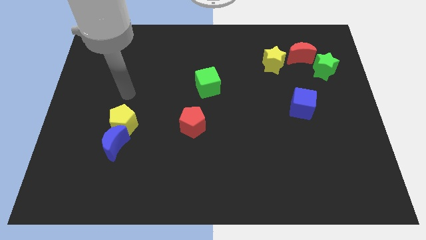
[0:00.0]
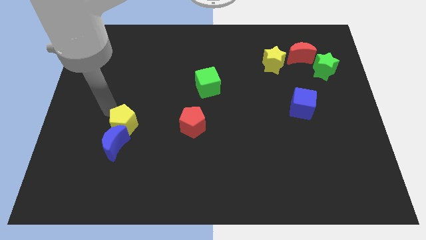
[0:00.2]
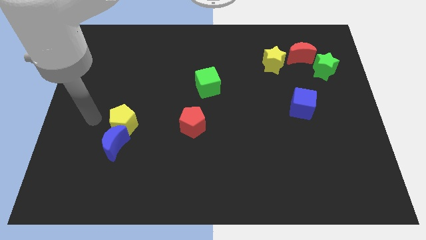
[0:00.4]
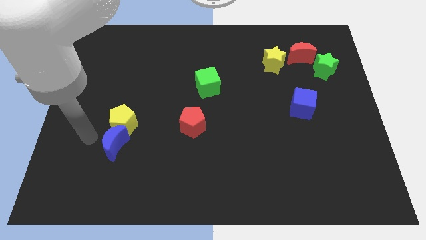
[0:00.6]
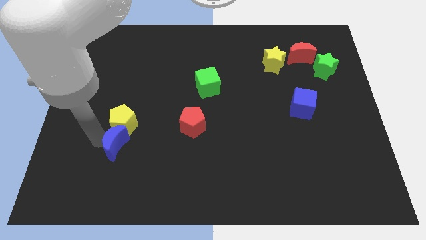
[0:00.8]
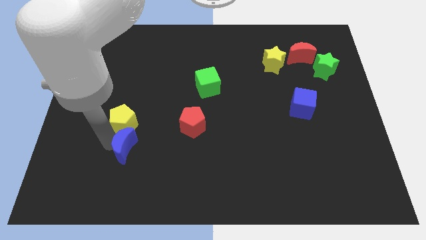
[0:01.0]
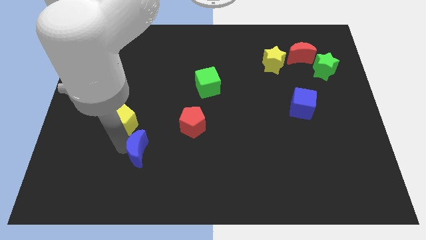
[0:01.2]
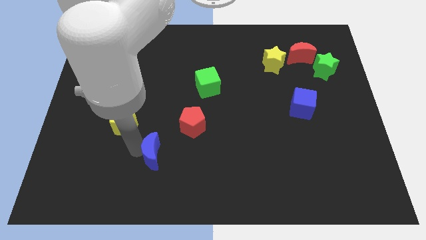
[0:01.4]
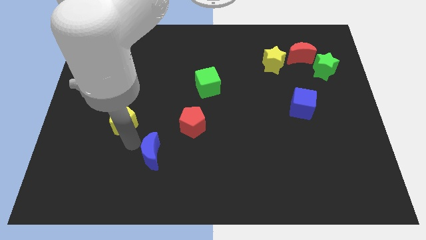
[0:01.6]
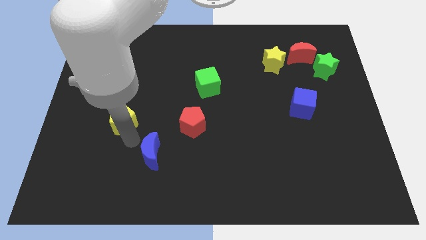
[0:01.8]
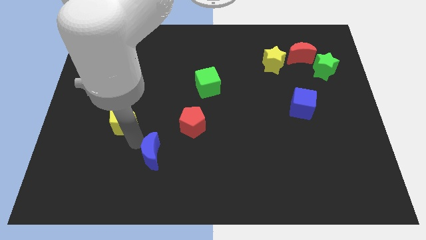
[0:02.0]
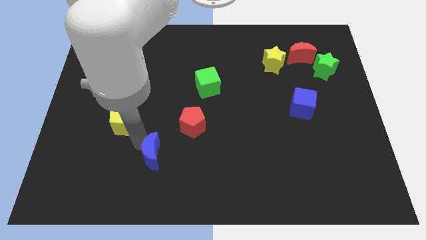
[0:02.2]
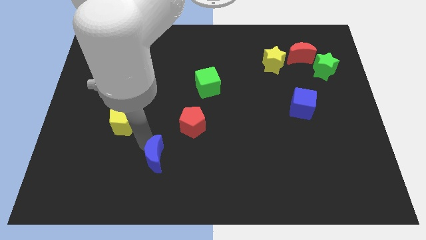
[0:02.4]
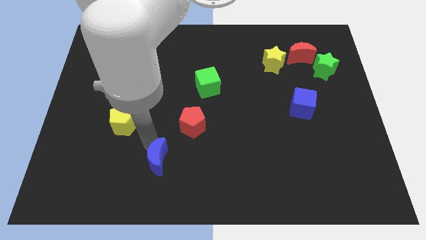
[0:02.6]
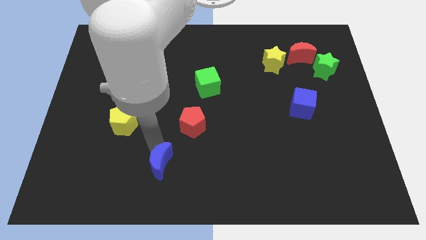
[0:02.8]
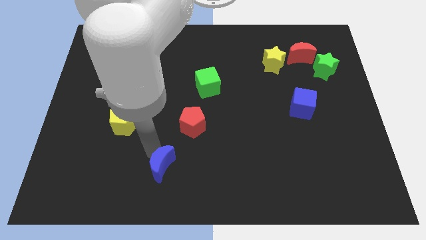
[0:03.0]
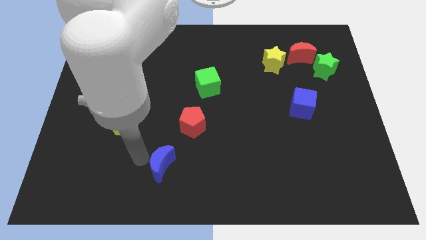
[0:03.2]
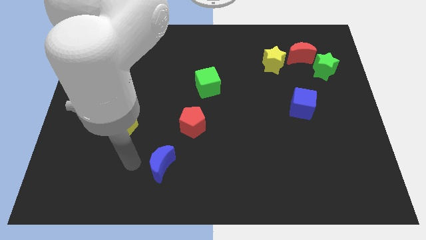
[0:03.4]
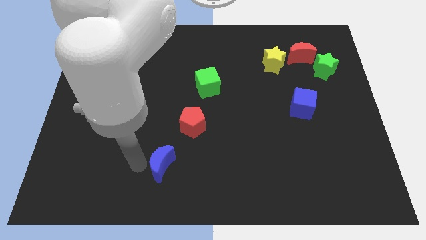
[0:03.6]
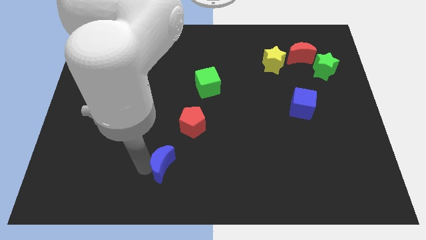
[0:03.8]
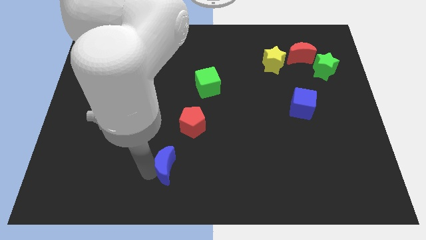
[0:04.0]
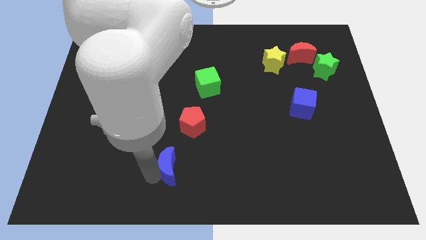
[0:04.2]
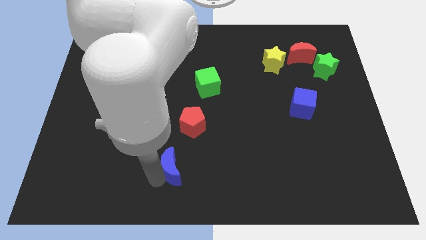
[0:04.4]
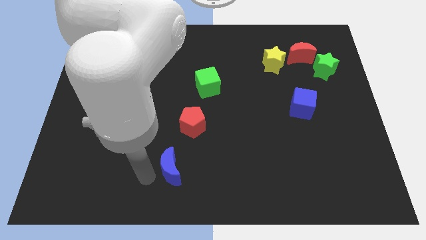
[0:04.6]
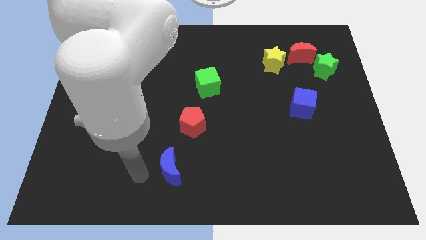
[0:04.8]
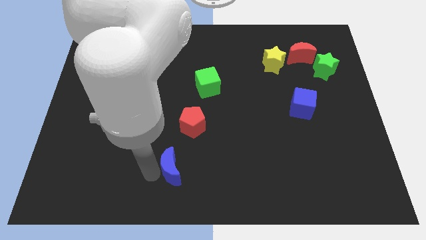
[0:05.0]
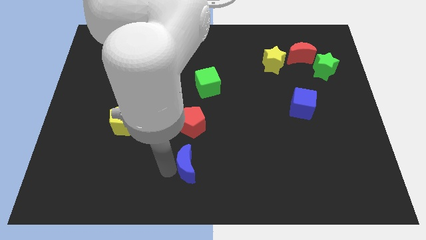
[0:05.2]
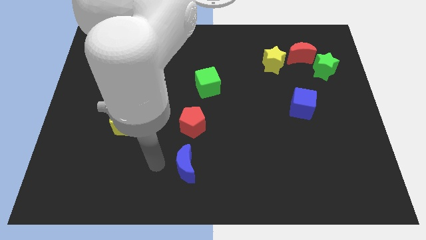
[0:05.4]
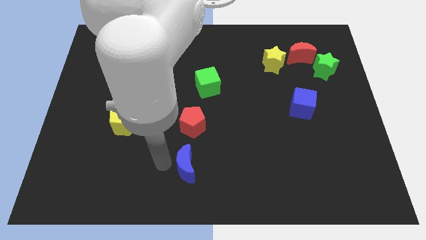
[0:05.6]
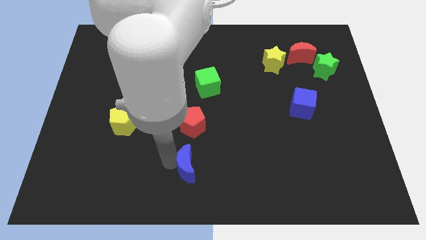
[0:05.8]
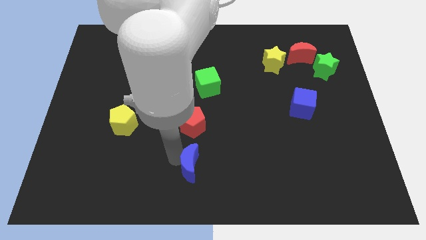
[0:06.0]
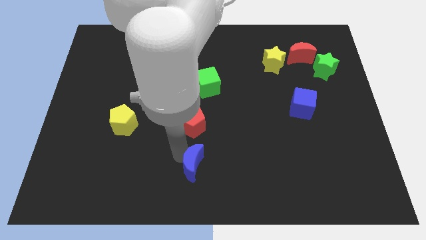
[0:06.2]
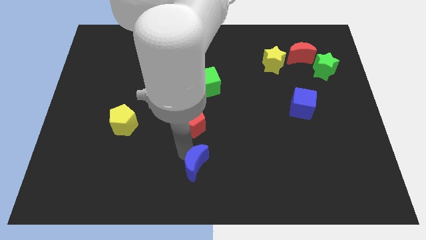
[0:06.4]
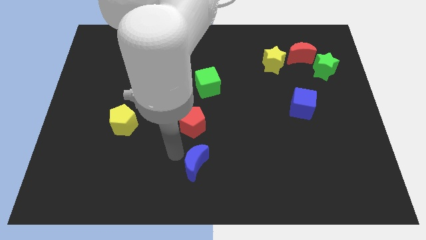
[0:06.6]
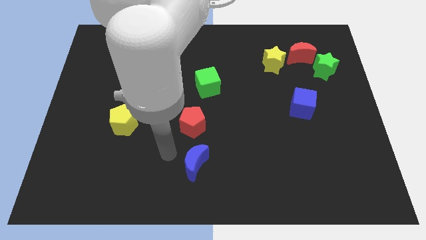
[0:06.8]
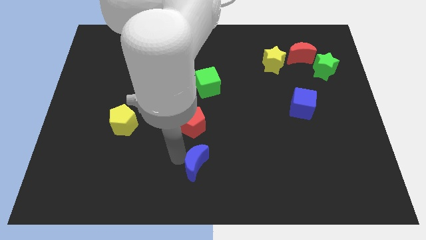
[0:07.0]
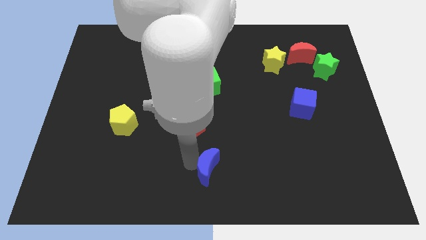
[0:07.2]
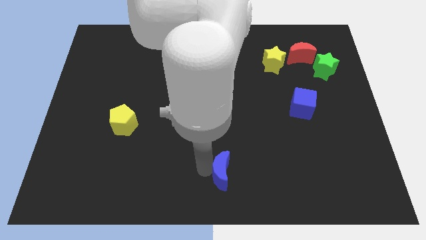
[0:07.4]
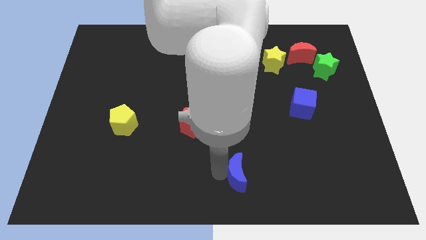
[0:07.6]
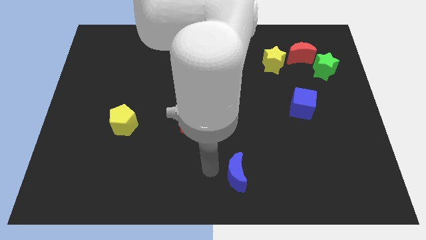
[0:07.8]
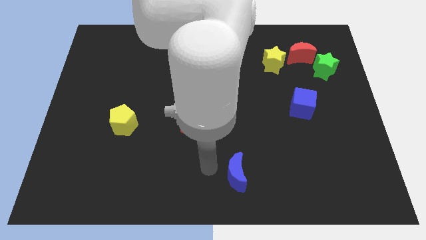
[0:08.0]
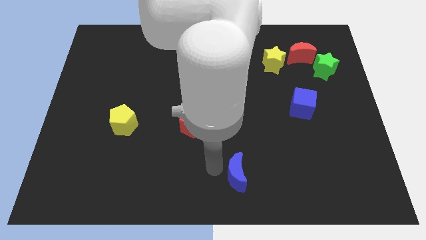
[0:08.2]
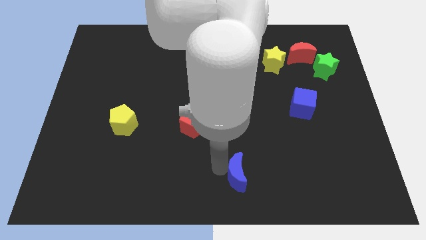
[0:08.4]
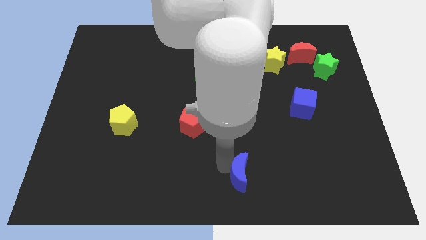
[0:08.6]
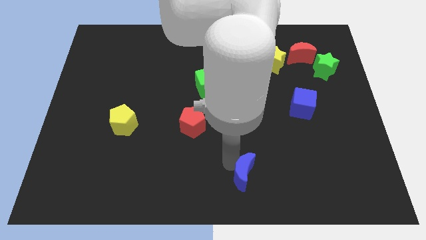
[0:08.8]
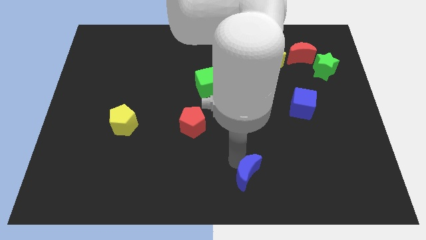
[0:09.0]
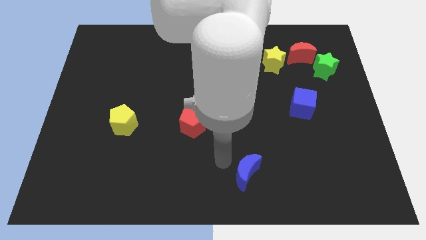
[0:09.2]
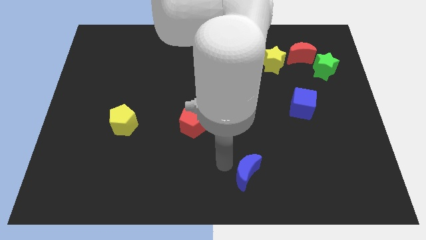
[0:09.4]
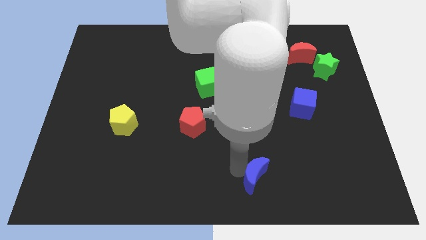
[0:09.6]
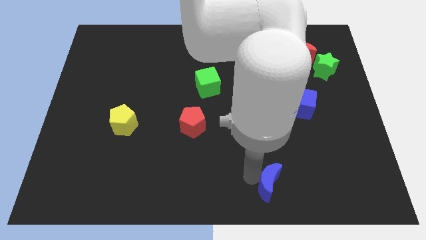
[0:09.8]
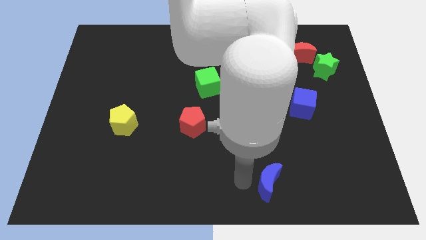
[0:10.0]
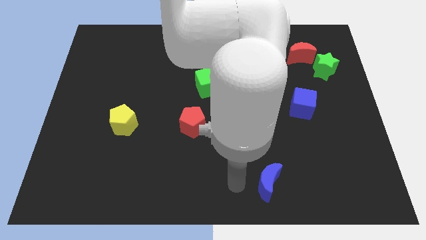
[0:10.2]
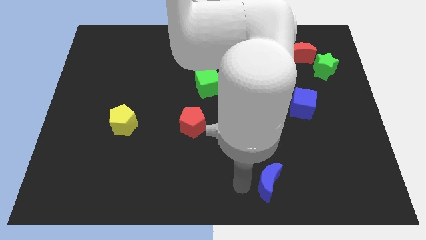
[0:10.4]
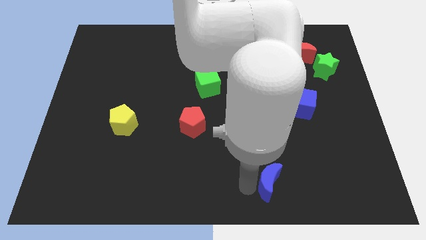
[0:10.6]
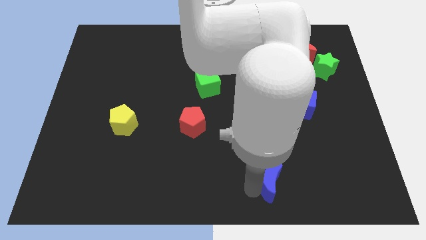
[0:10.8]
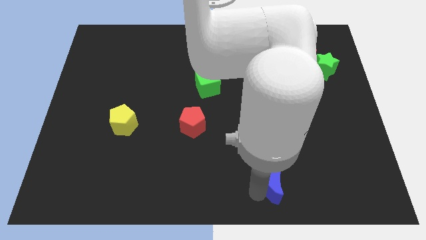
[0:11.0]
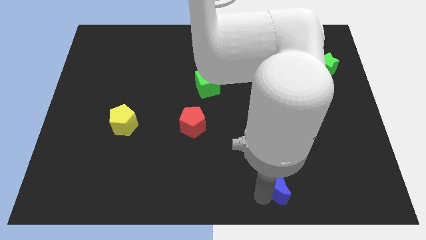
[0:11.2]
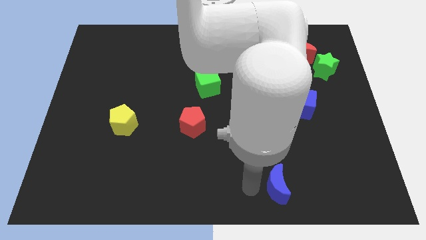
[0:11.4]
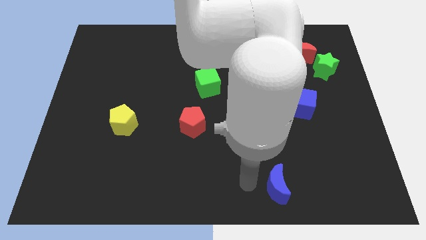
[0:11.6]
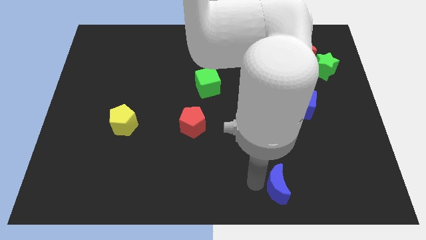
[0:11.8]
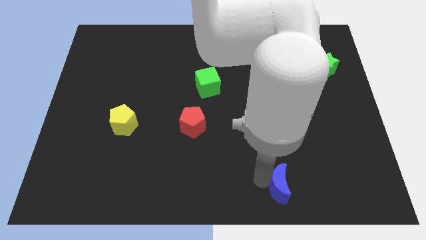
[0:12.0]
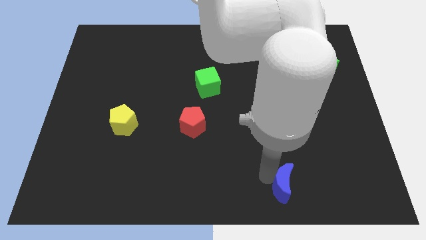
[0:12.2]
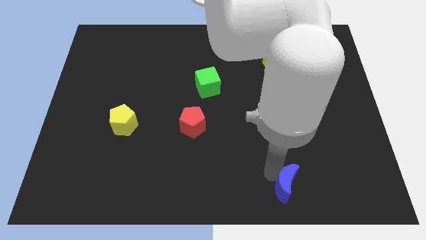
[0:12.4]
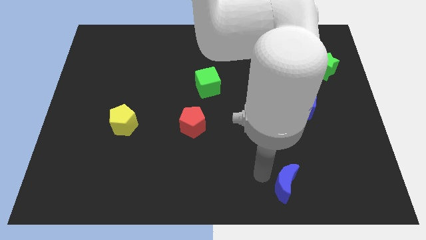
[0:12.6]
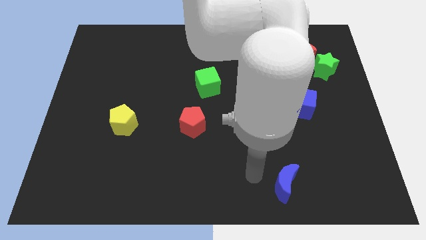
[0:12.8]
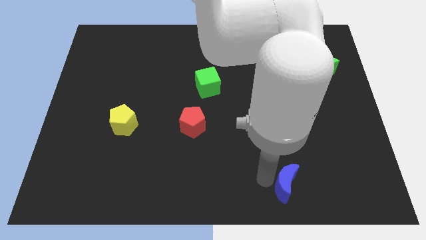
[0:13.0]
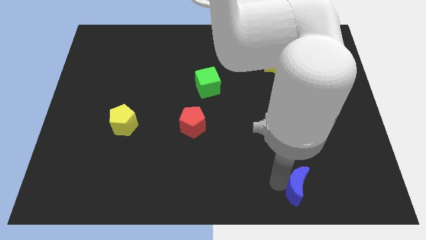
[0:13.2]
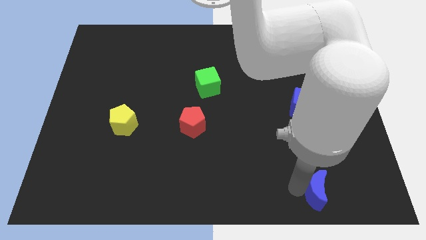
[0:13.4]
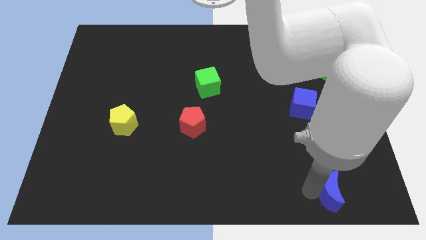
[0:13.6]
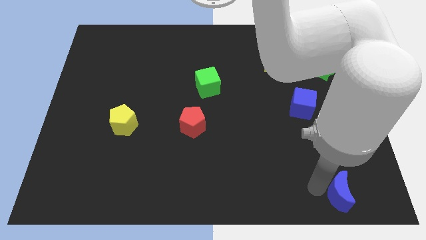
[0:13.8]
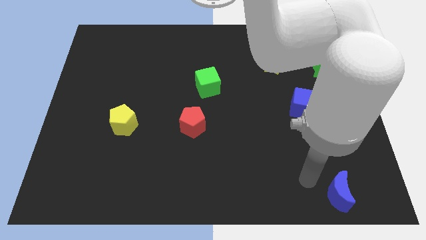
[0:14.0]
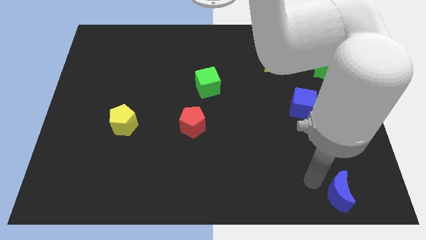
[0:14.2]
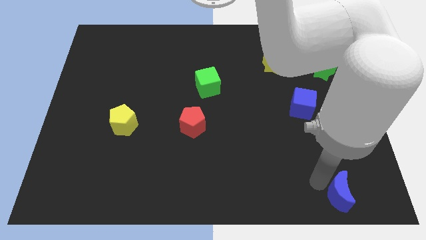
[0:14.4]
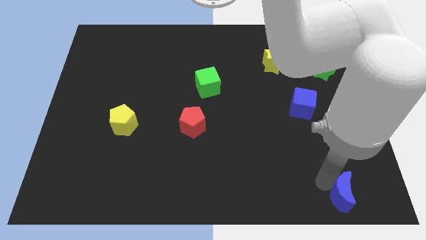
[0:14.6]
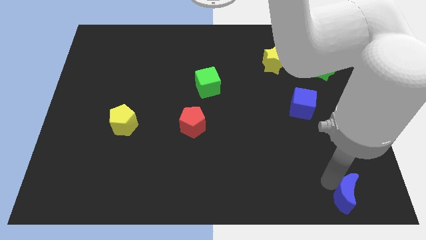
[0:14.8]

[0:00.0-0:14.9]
slide the blue moon to the bottom right of the board
